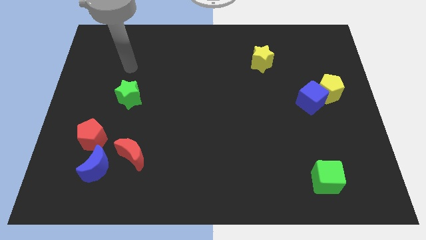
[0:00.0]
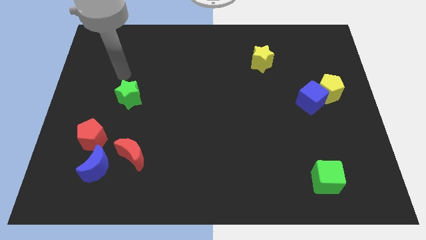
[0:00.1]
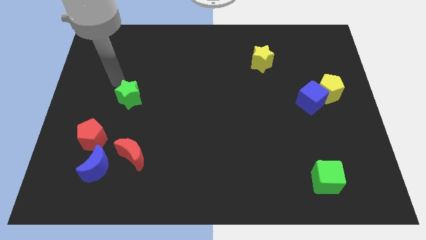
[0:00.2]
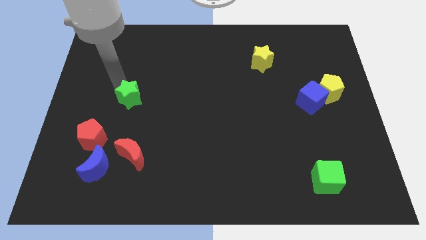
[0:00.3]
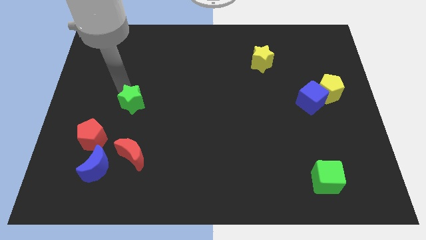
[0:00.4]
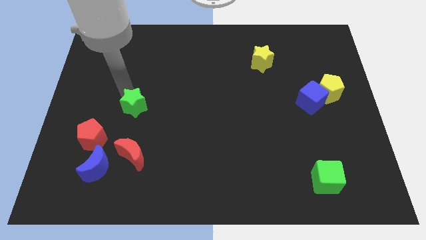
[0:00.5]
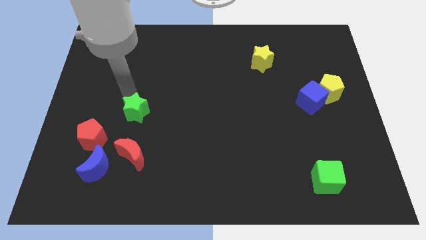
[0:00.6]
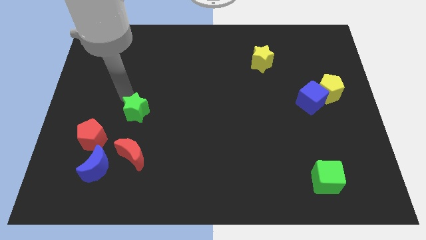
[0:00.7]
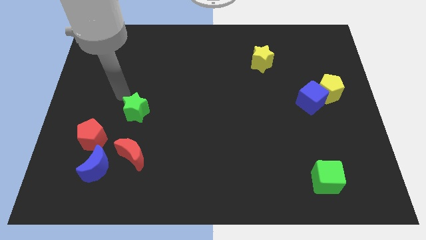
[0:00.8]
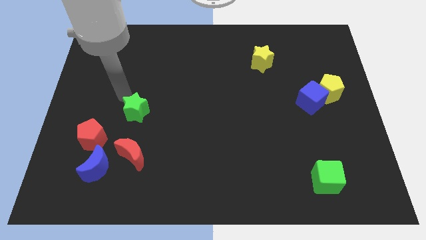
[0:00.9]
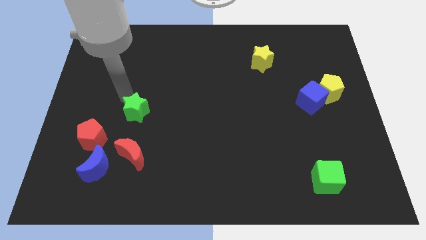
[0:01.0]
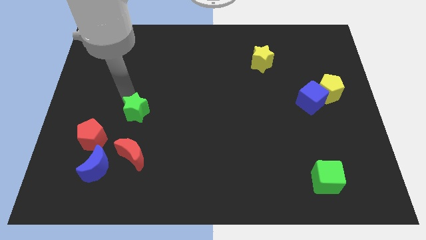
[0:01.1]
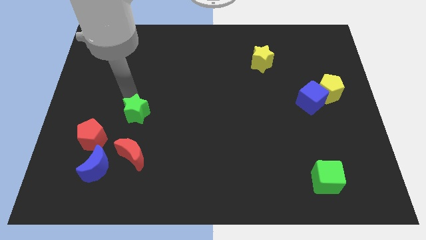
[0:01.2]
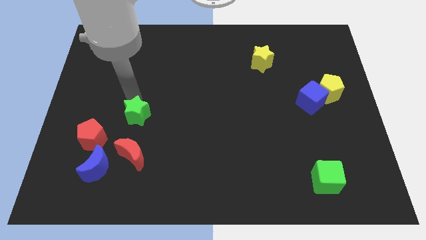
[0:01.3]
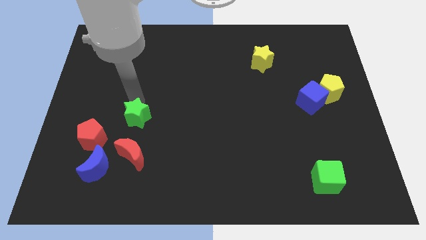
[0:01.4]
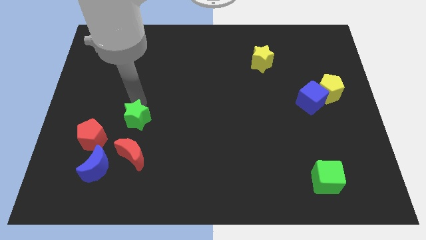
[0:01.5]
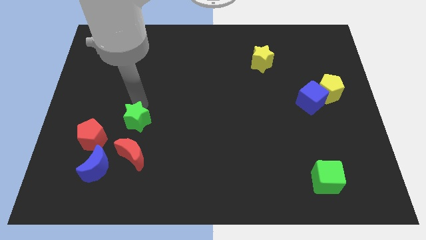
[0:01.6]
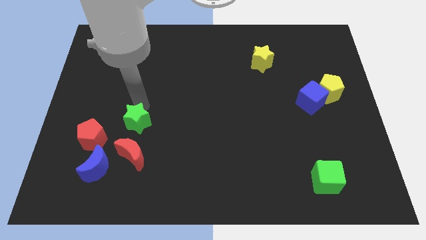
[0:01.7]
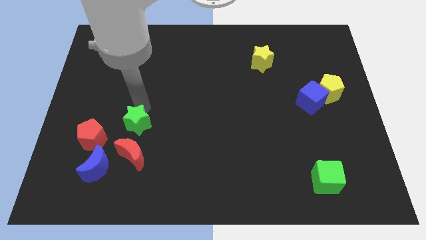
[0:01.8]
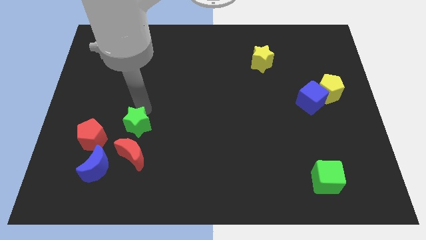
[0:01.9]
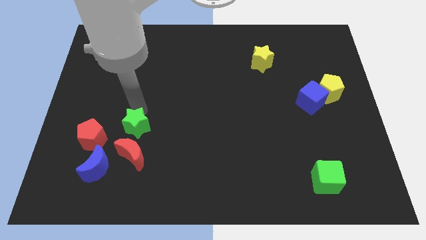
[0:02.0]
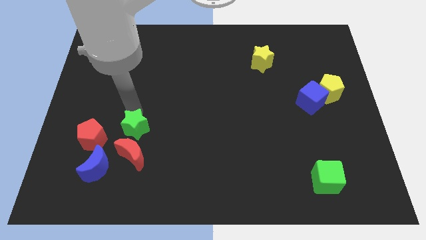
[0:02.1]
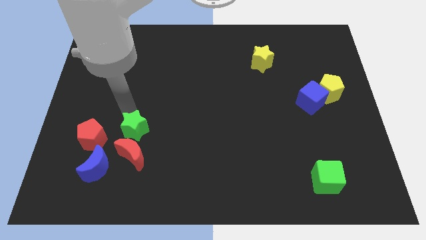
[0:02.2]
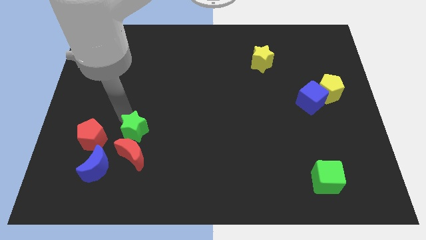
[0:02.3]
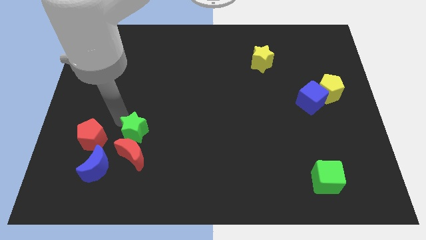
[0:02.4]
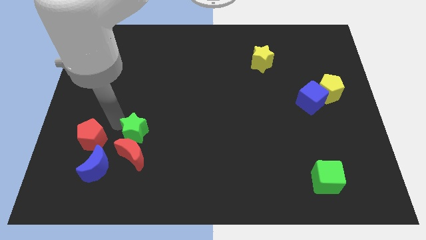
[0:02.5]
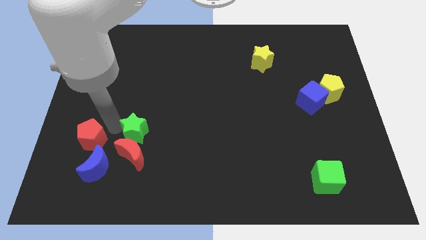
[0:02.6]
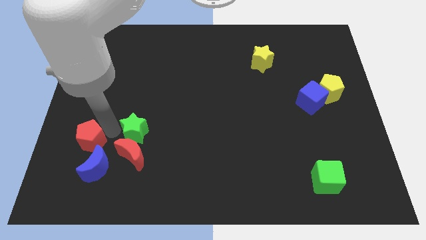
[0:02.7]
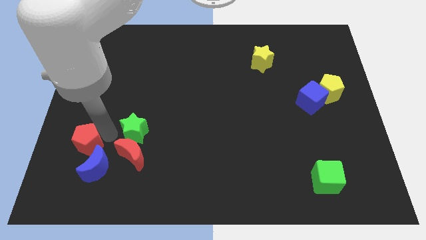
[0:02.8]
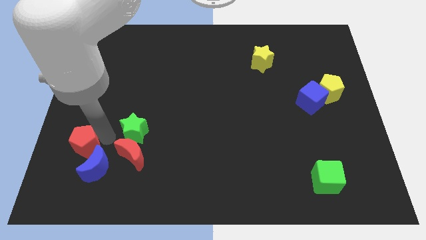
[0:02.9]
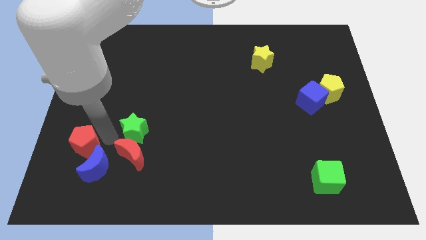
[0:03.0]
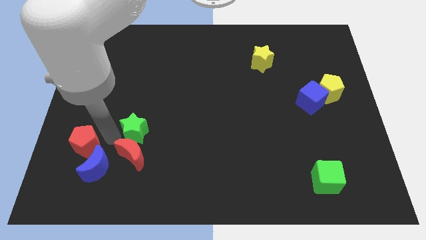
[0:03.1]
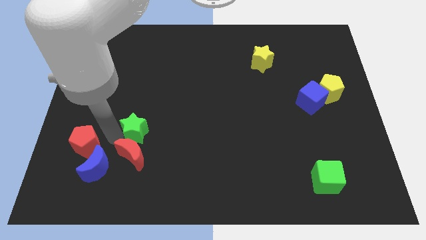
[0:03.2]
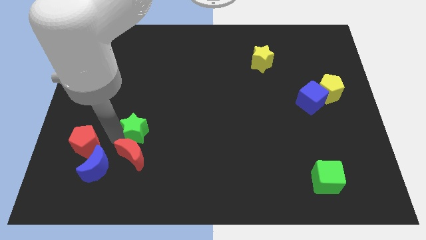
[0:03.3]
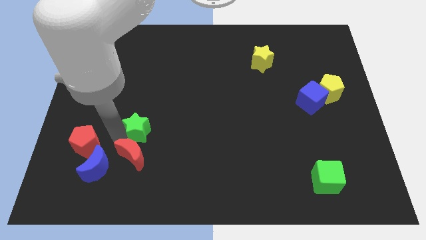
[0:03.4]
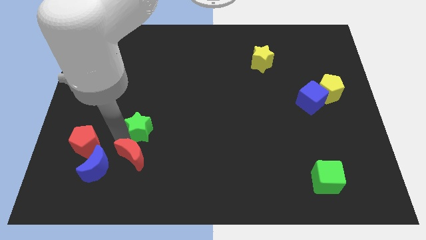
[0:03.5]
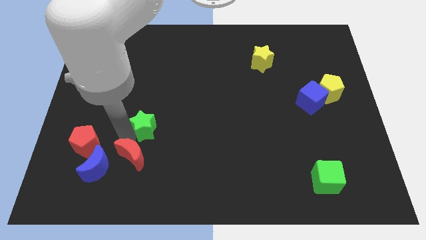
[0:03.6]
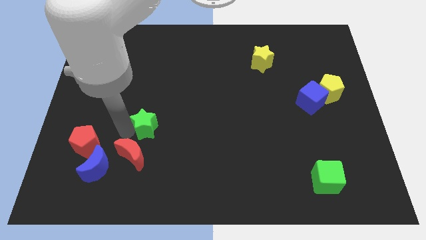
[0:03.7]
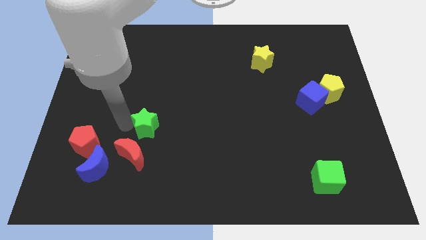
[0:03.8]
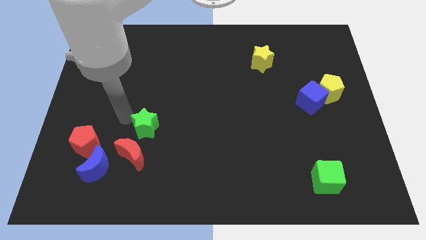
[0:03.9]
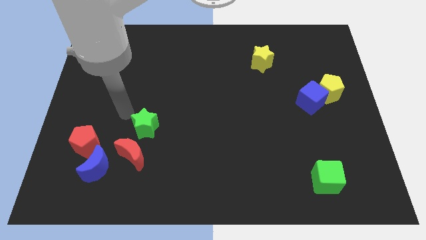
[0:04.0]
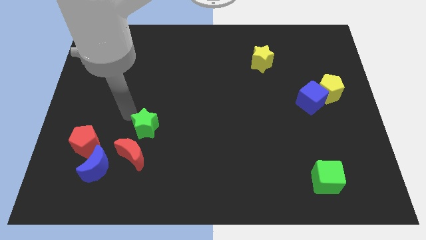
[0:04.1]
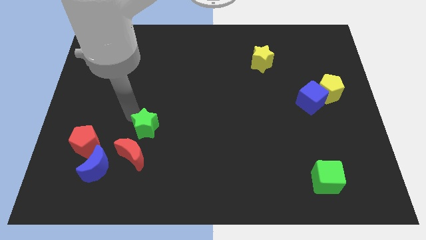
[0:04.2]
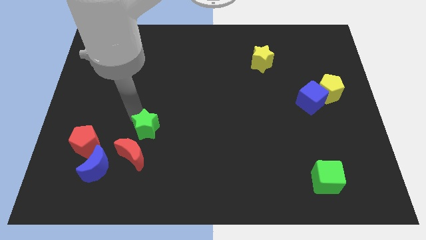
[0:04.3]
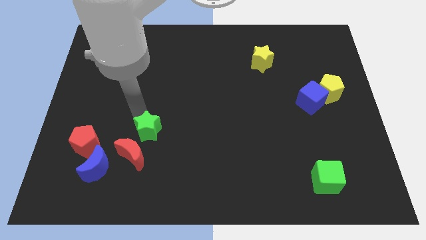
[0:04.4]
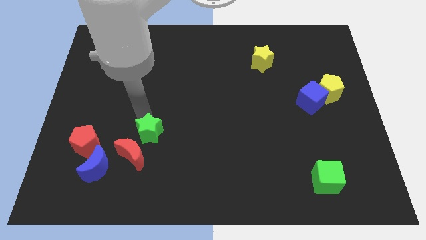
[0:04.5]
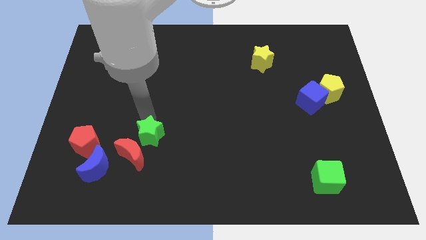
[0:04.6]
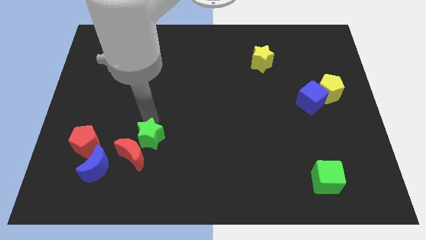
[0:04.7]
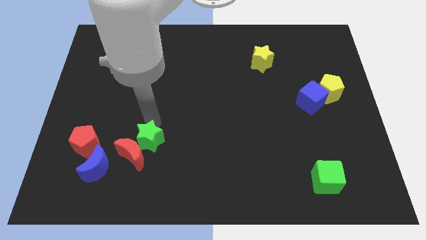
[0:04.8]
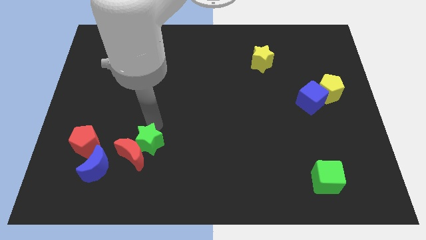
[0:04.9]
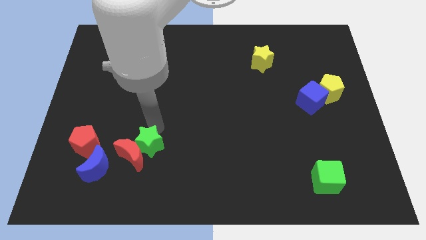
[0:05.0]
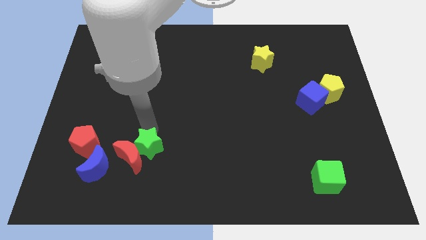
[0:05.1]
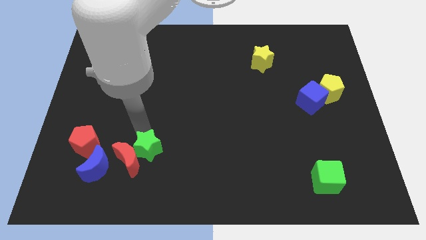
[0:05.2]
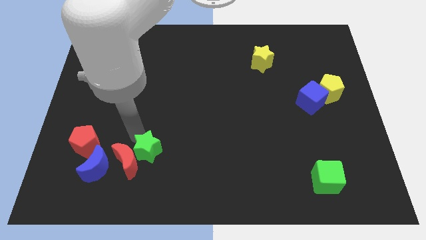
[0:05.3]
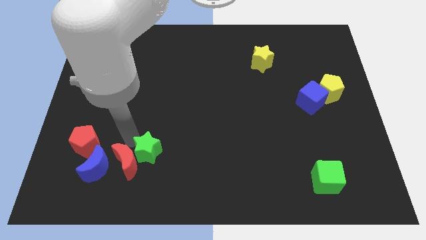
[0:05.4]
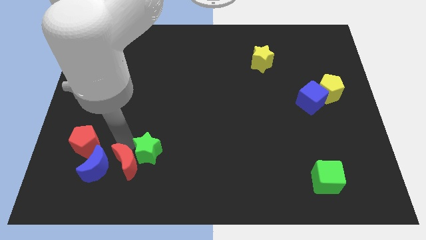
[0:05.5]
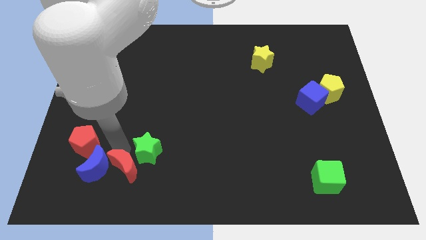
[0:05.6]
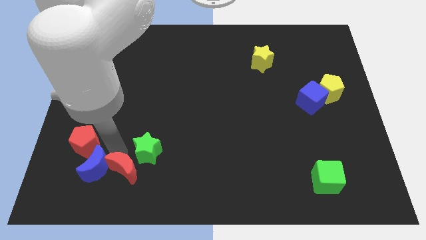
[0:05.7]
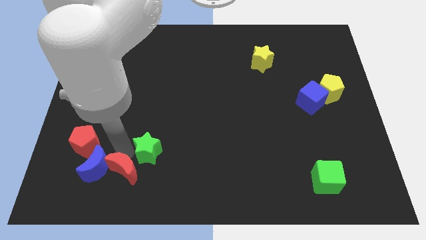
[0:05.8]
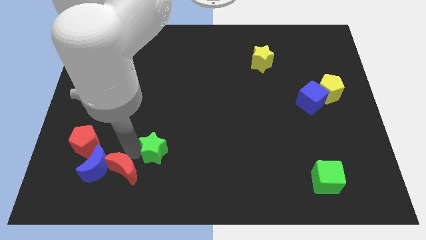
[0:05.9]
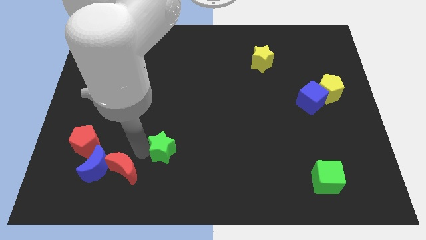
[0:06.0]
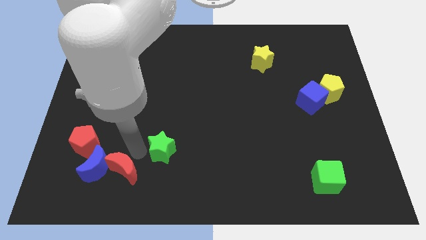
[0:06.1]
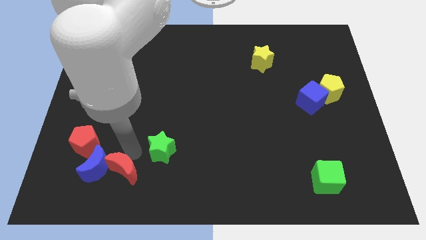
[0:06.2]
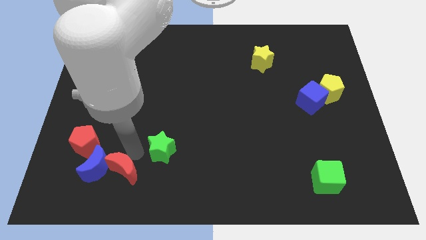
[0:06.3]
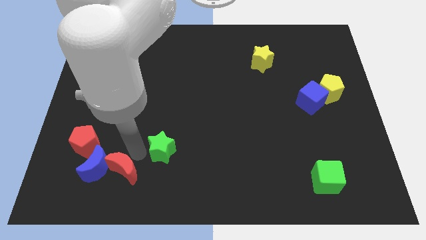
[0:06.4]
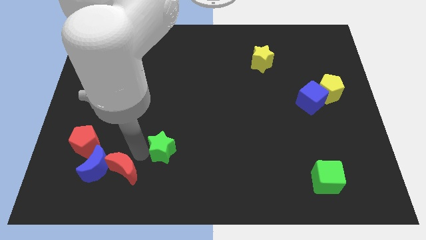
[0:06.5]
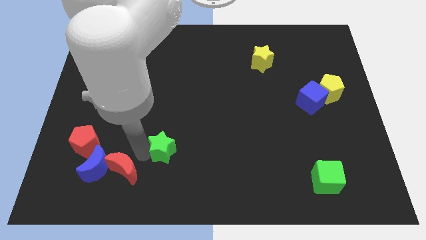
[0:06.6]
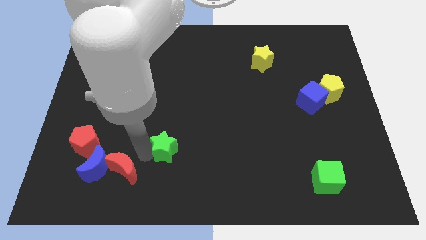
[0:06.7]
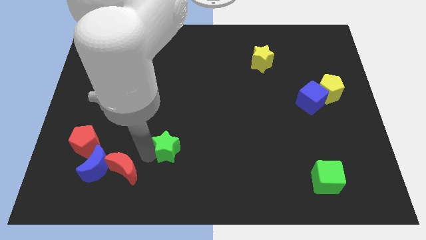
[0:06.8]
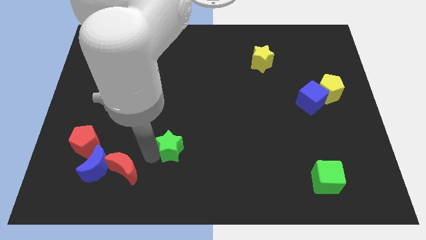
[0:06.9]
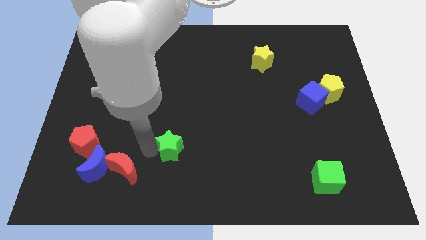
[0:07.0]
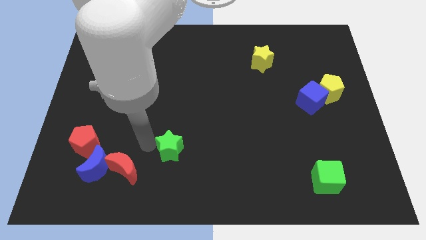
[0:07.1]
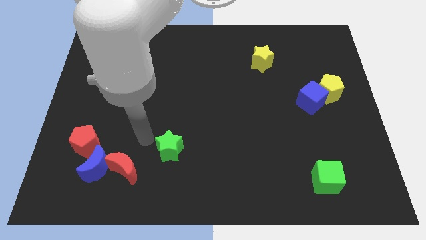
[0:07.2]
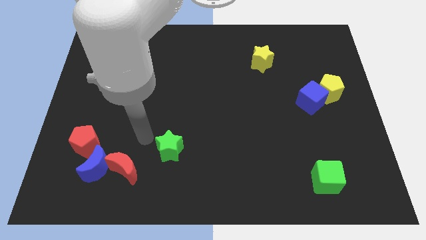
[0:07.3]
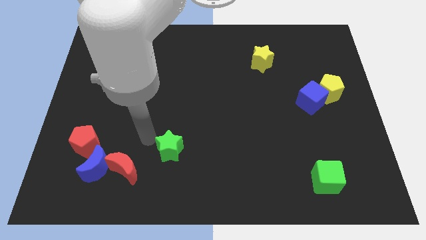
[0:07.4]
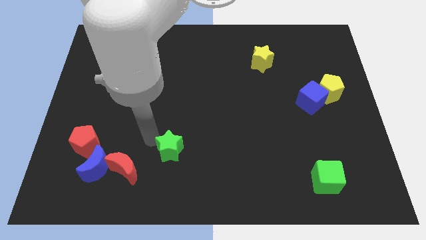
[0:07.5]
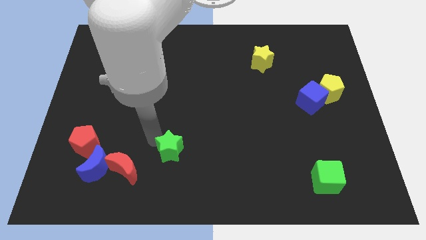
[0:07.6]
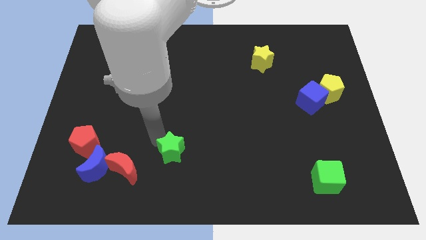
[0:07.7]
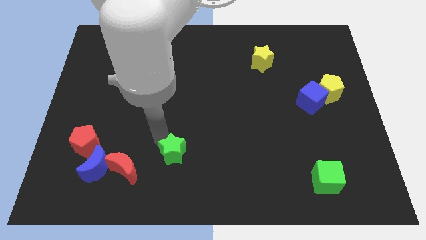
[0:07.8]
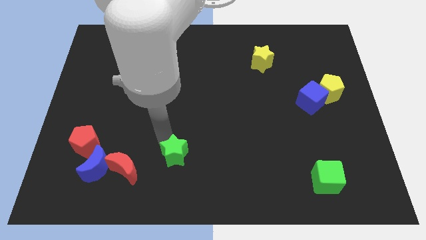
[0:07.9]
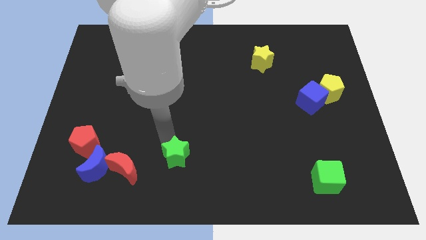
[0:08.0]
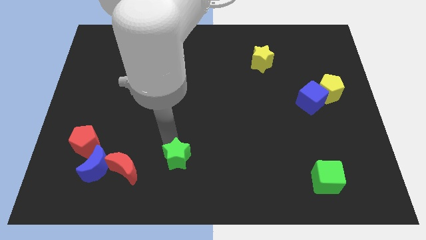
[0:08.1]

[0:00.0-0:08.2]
push the green star down and to the right
